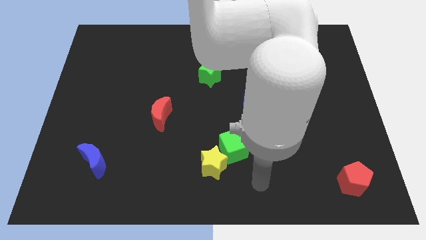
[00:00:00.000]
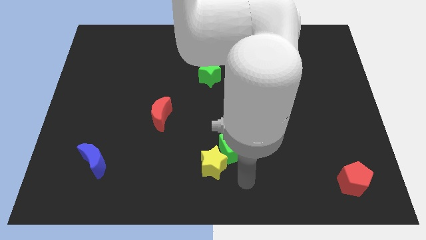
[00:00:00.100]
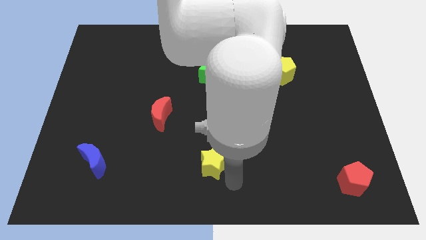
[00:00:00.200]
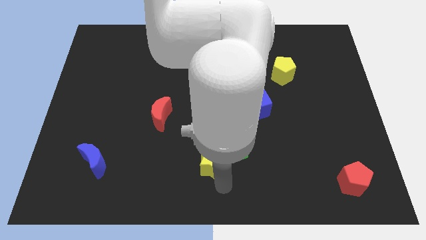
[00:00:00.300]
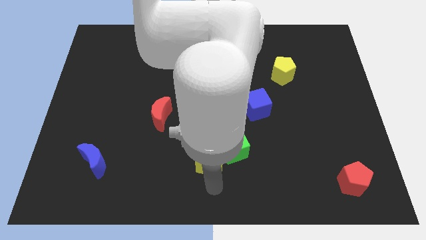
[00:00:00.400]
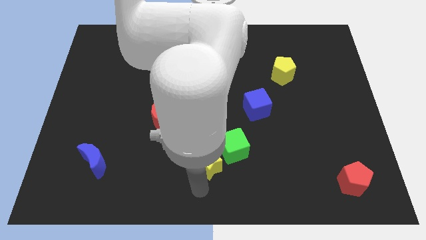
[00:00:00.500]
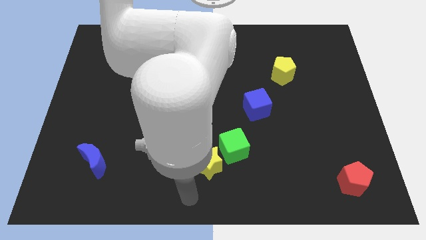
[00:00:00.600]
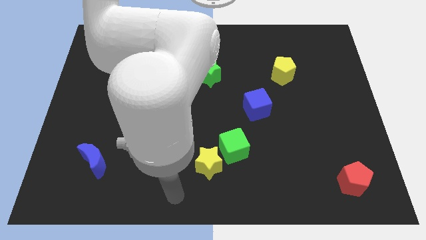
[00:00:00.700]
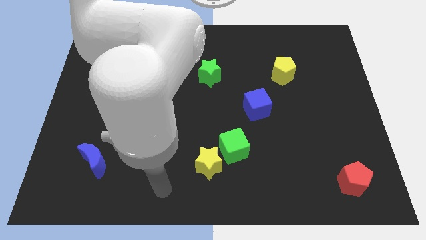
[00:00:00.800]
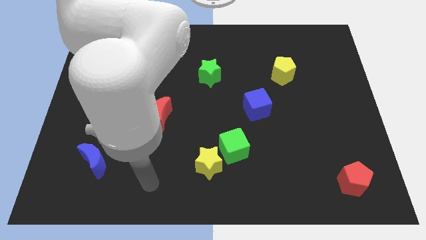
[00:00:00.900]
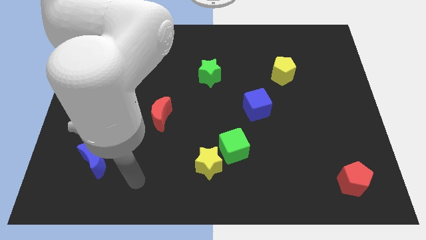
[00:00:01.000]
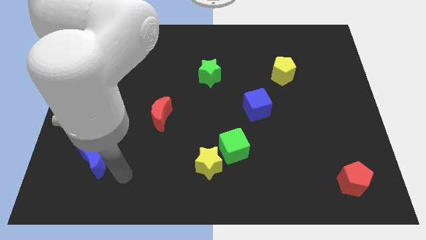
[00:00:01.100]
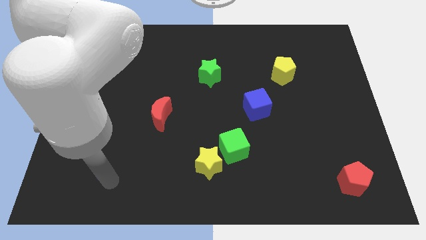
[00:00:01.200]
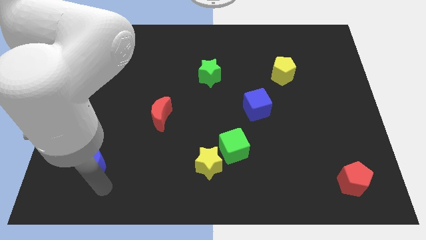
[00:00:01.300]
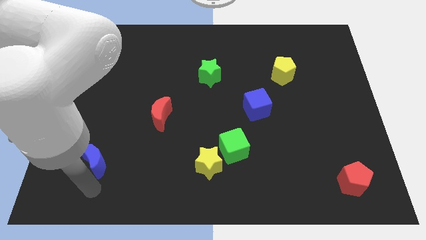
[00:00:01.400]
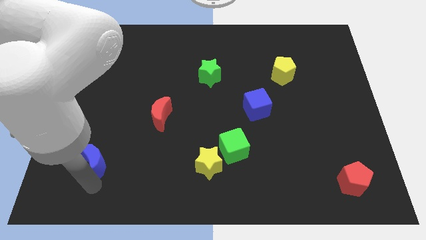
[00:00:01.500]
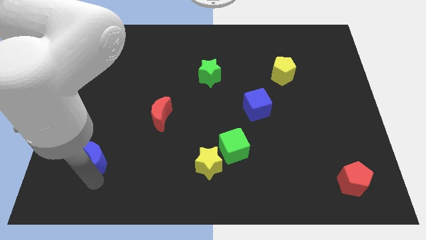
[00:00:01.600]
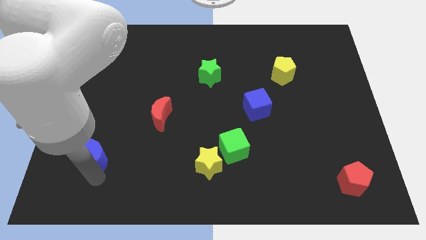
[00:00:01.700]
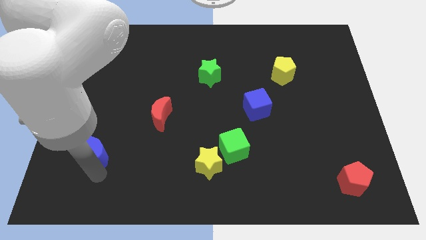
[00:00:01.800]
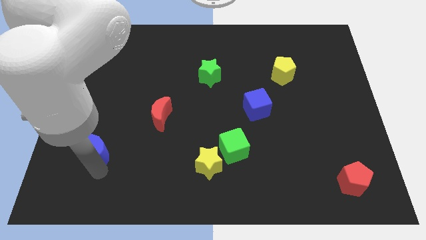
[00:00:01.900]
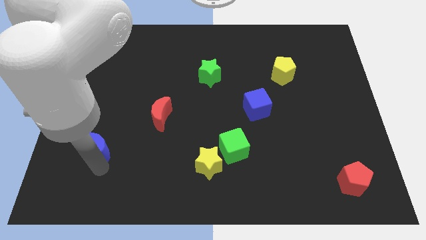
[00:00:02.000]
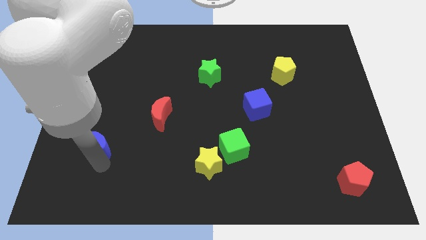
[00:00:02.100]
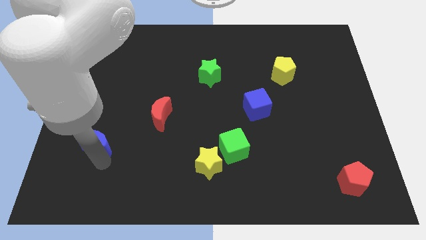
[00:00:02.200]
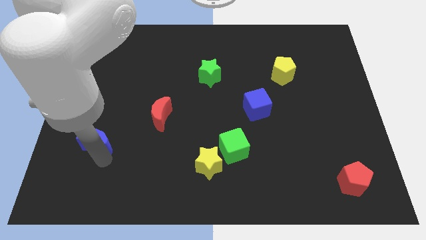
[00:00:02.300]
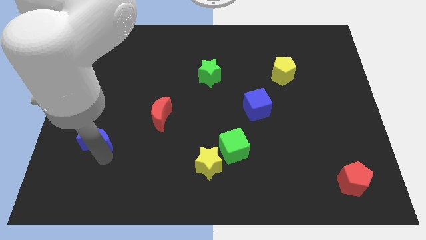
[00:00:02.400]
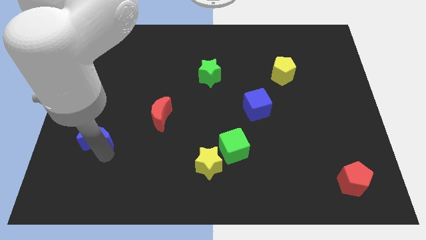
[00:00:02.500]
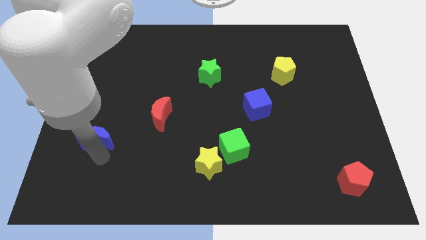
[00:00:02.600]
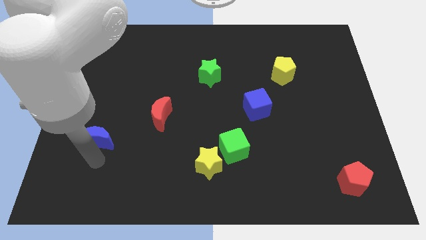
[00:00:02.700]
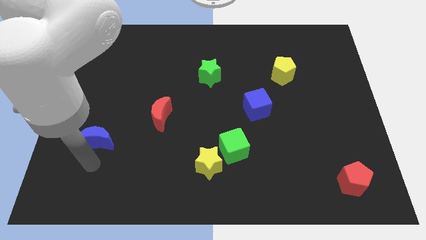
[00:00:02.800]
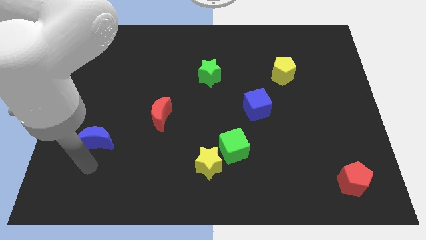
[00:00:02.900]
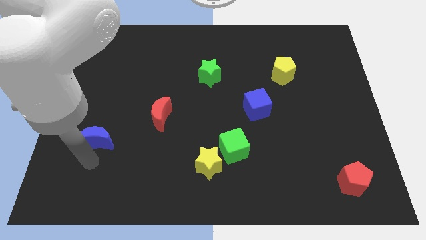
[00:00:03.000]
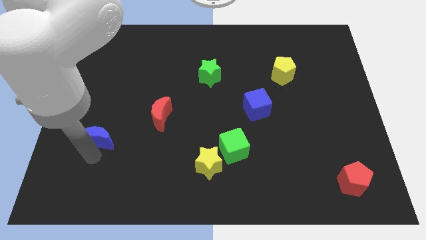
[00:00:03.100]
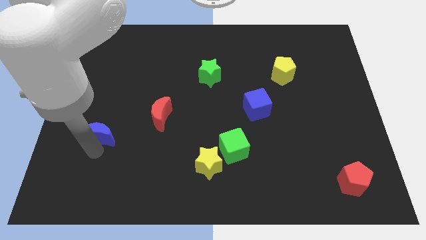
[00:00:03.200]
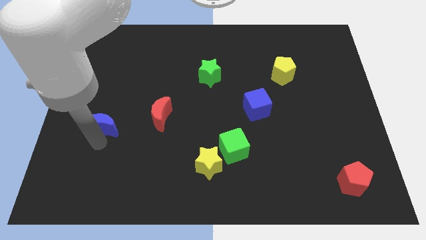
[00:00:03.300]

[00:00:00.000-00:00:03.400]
push the blue moon a little upwards

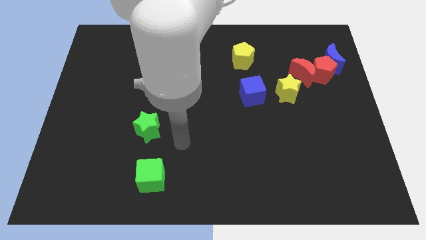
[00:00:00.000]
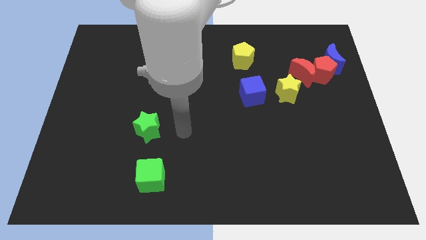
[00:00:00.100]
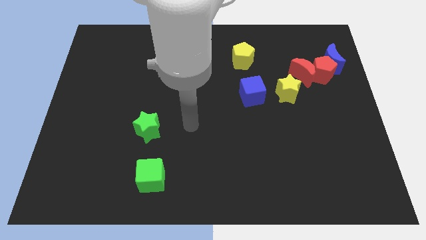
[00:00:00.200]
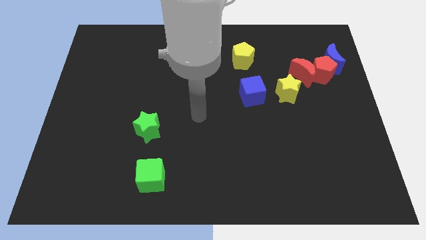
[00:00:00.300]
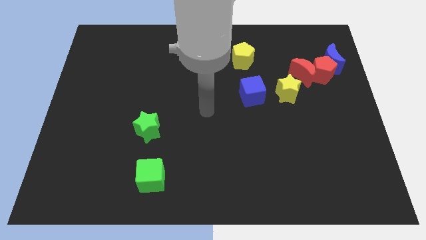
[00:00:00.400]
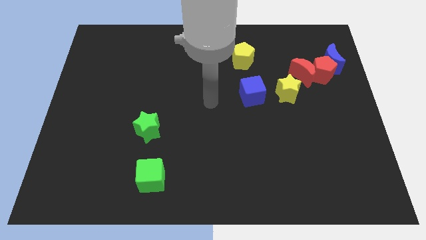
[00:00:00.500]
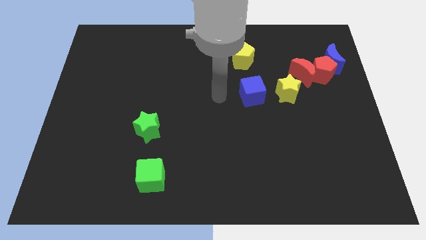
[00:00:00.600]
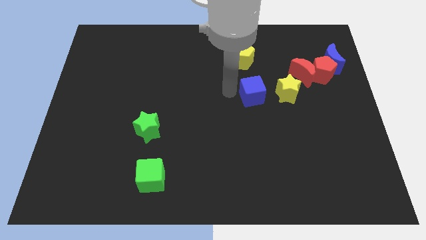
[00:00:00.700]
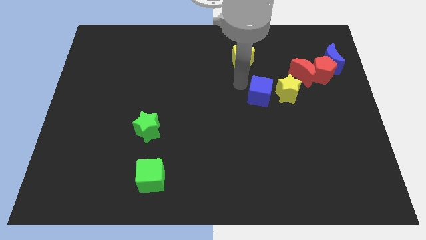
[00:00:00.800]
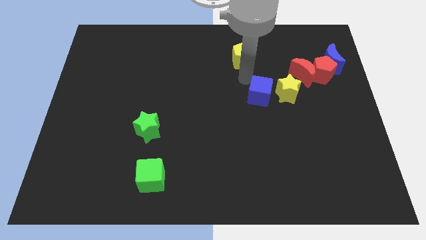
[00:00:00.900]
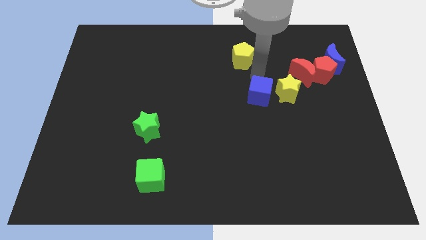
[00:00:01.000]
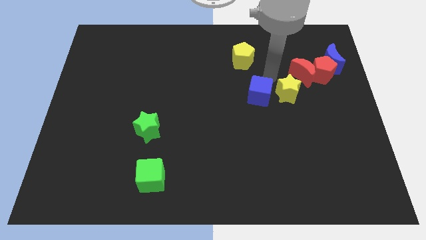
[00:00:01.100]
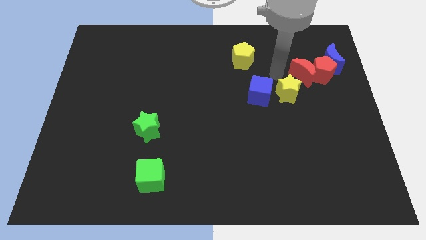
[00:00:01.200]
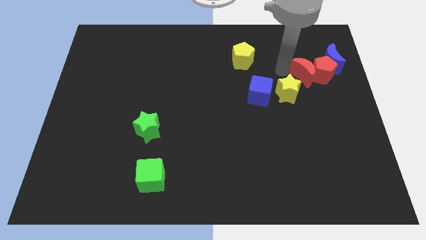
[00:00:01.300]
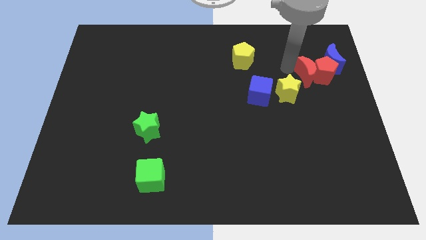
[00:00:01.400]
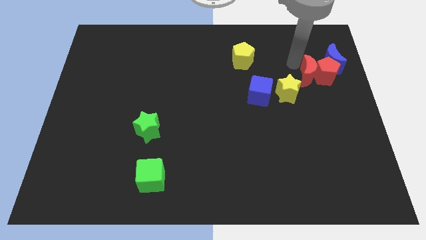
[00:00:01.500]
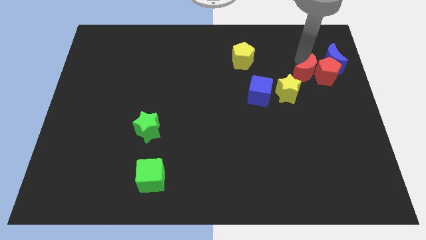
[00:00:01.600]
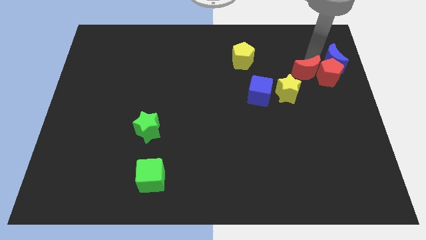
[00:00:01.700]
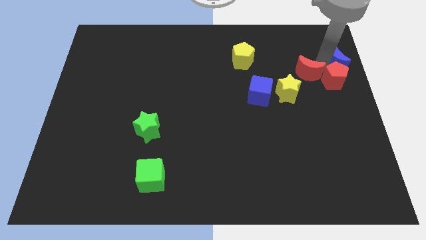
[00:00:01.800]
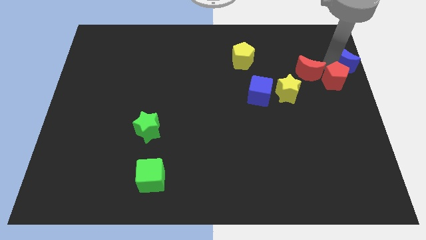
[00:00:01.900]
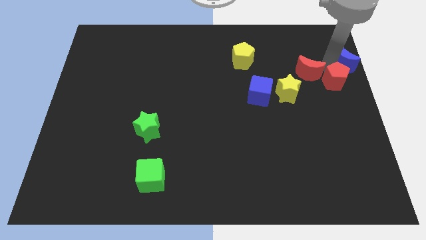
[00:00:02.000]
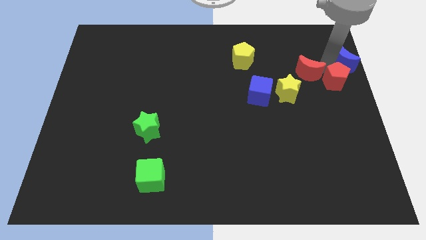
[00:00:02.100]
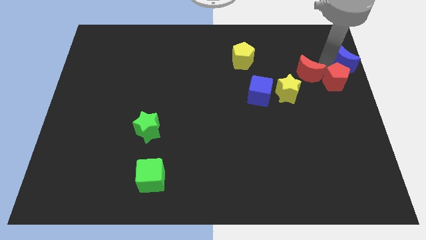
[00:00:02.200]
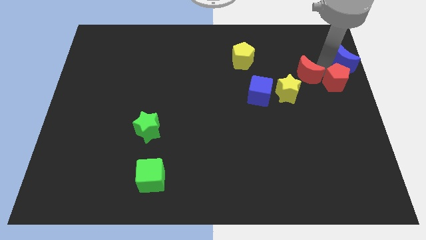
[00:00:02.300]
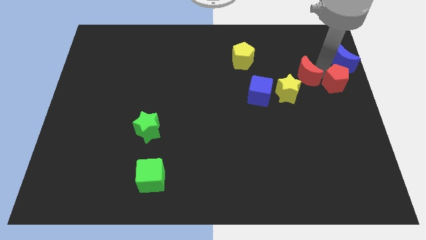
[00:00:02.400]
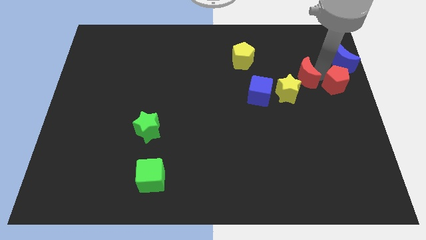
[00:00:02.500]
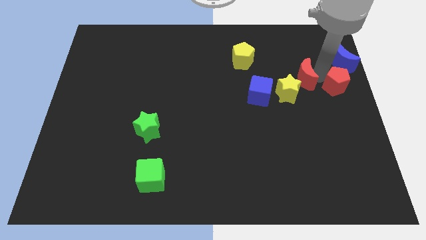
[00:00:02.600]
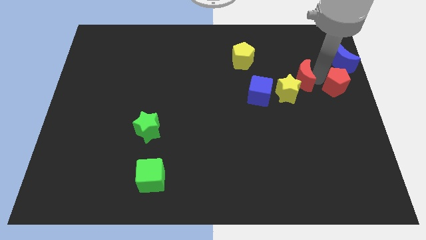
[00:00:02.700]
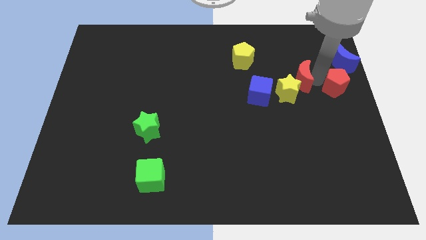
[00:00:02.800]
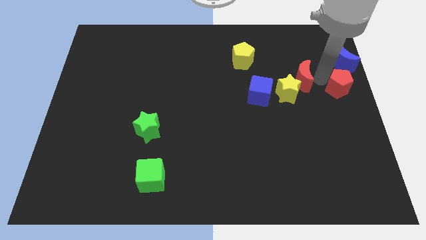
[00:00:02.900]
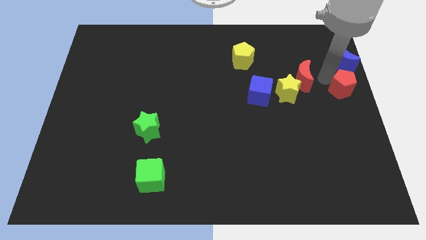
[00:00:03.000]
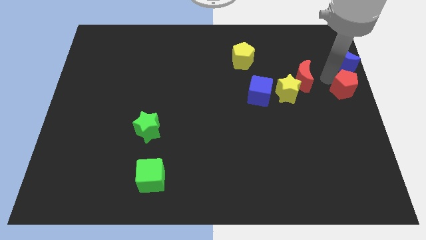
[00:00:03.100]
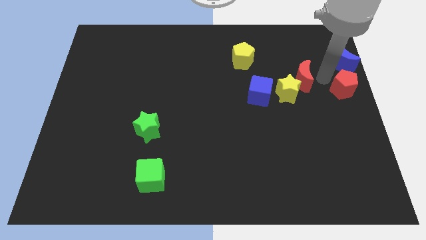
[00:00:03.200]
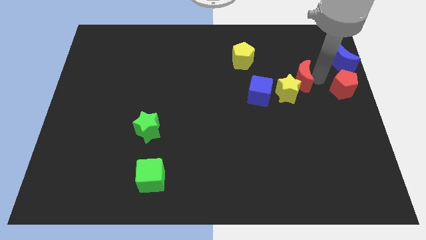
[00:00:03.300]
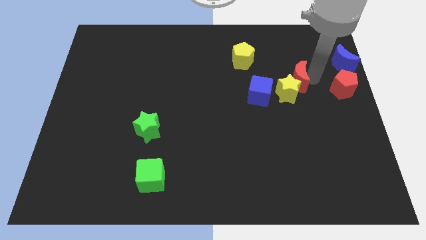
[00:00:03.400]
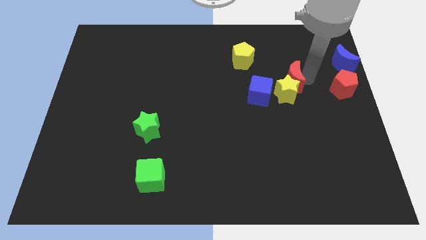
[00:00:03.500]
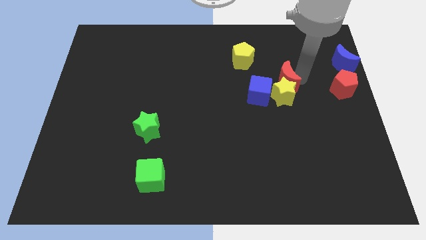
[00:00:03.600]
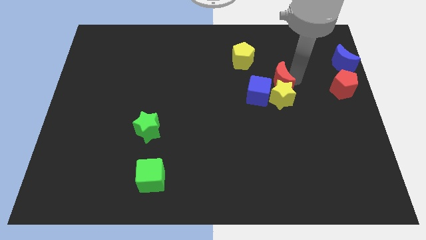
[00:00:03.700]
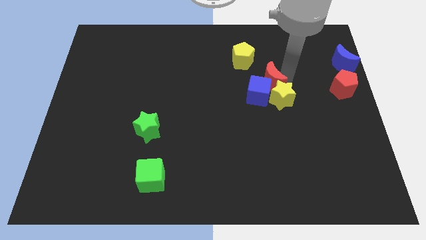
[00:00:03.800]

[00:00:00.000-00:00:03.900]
slide the red moon downwards and to the left diagonally a little

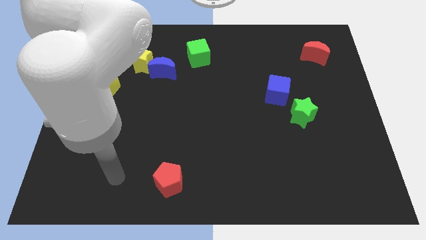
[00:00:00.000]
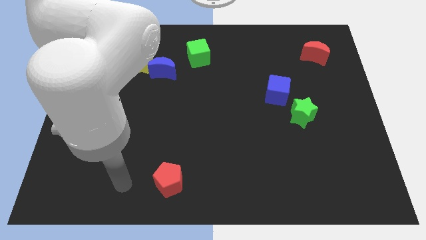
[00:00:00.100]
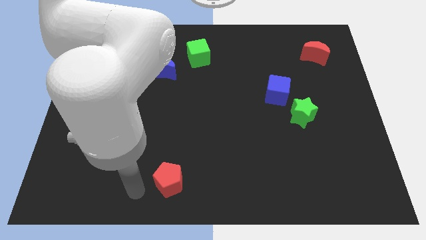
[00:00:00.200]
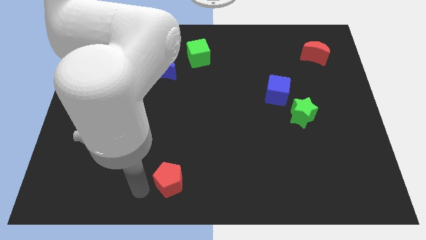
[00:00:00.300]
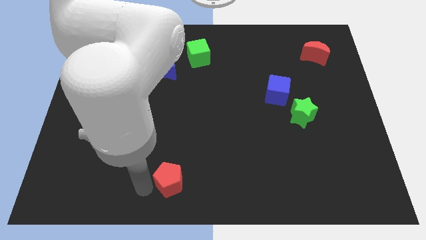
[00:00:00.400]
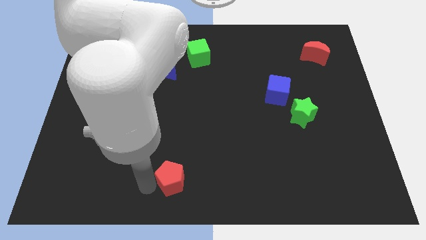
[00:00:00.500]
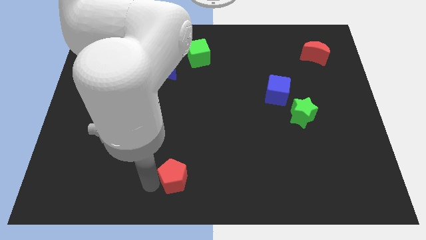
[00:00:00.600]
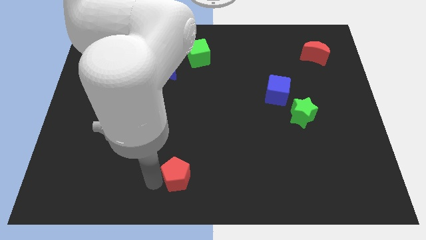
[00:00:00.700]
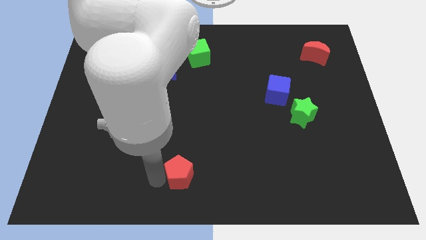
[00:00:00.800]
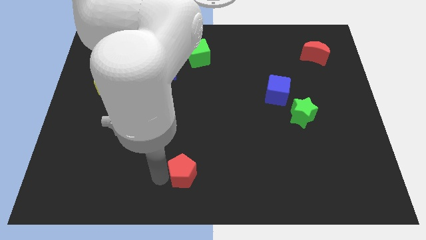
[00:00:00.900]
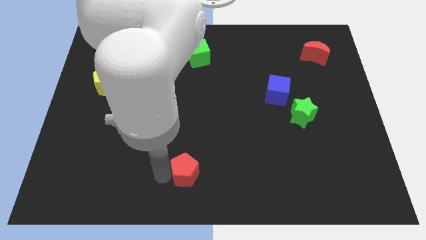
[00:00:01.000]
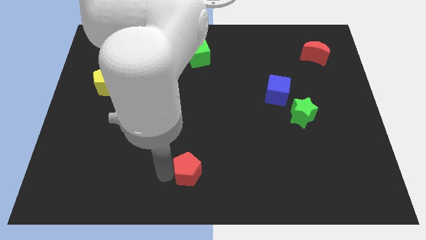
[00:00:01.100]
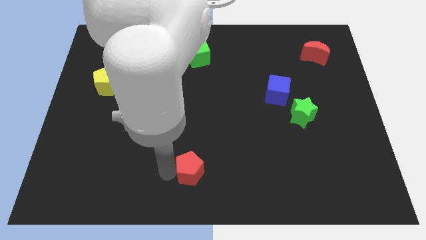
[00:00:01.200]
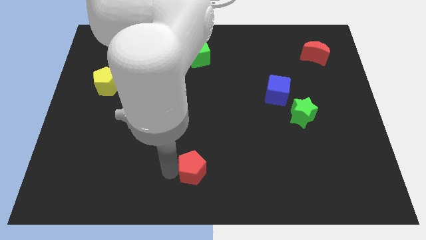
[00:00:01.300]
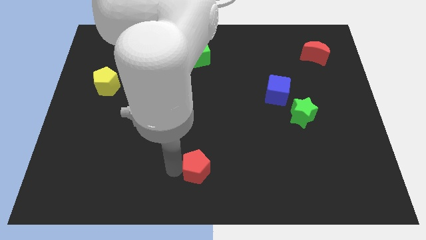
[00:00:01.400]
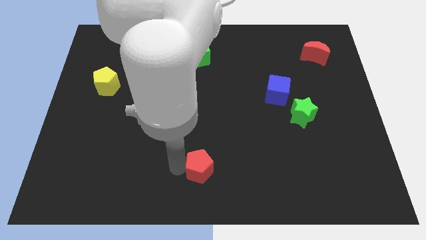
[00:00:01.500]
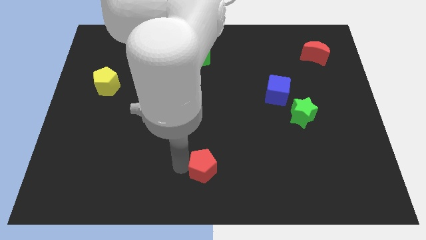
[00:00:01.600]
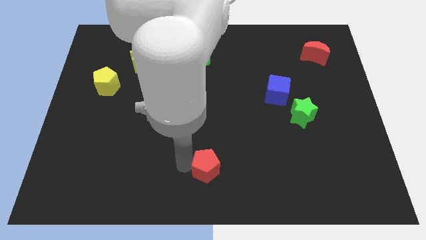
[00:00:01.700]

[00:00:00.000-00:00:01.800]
push the red pentagon right a little bit
